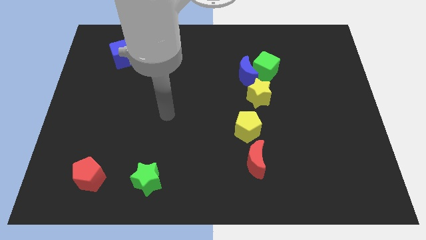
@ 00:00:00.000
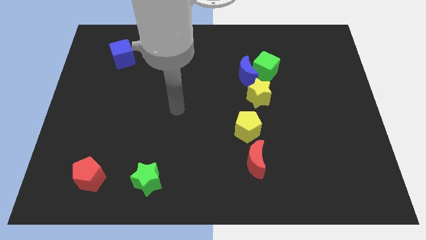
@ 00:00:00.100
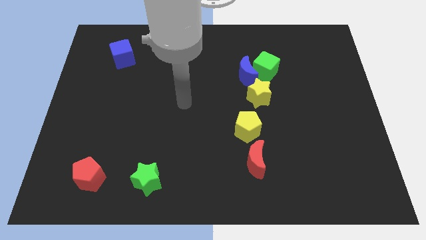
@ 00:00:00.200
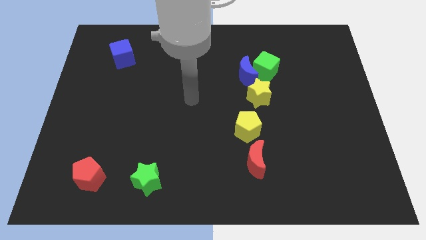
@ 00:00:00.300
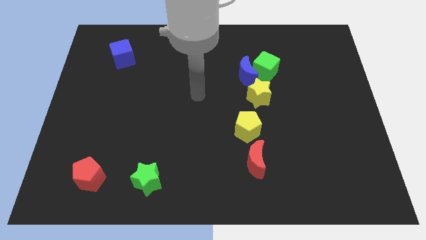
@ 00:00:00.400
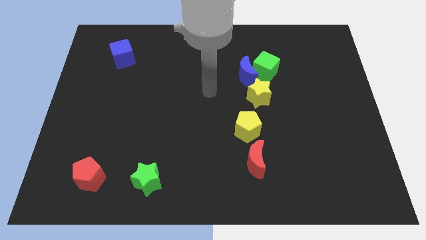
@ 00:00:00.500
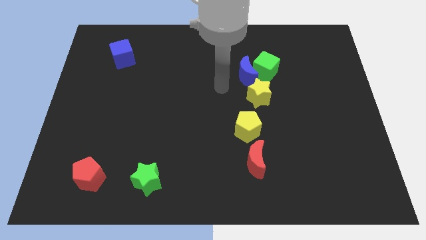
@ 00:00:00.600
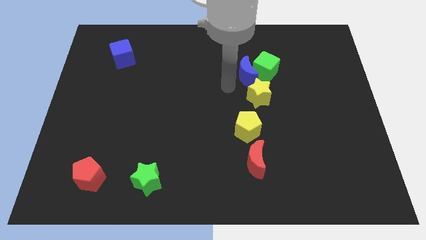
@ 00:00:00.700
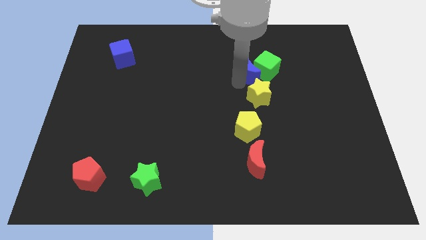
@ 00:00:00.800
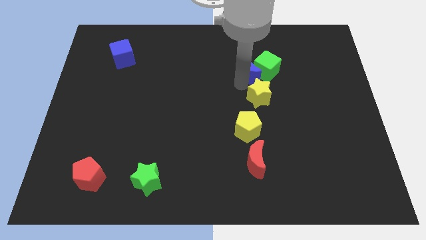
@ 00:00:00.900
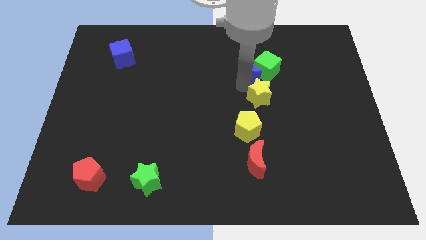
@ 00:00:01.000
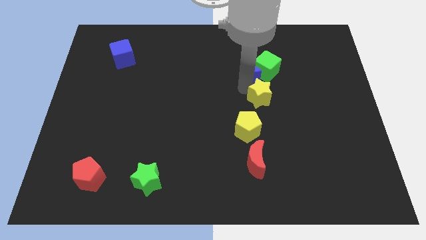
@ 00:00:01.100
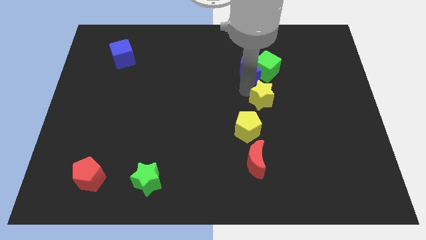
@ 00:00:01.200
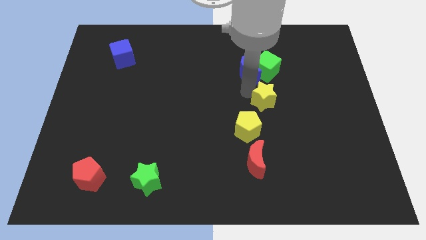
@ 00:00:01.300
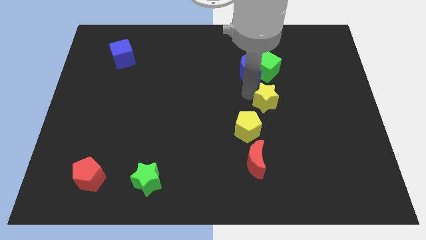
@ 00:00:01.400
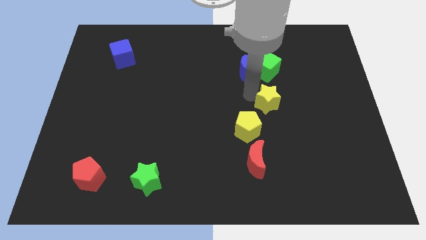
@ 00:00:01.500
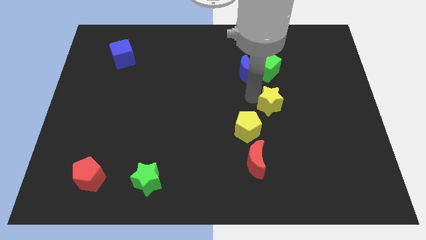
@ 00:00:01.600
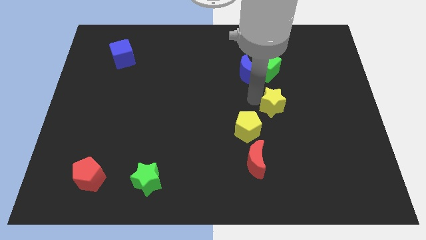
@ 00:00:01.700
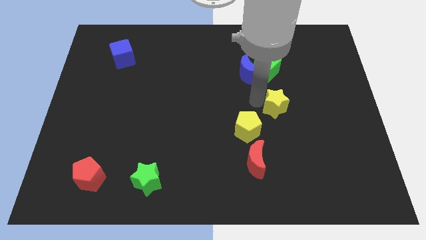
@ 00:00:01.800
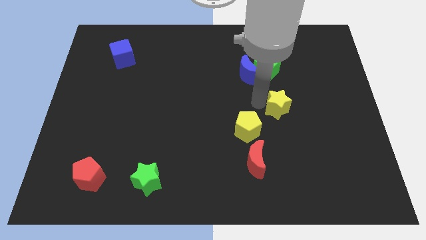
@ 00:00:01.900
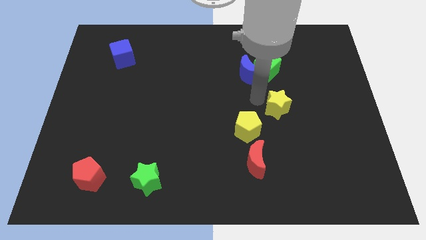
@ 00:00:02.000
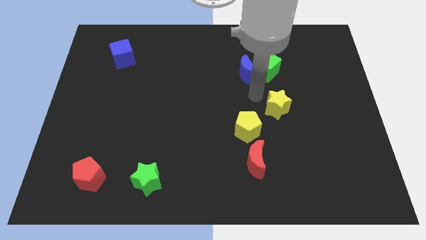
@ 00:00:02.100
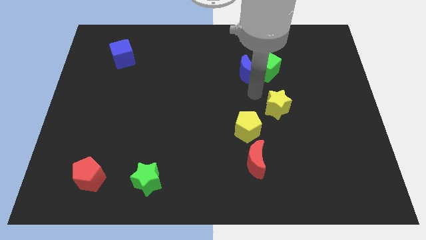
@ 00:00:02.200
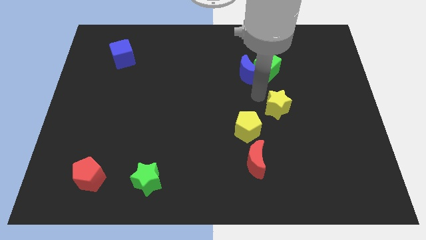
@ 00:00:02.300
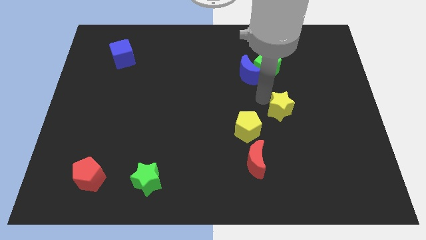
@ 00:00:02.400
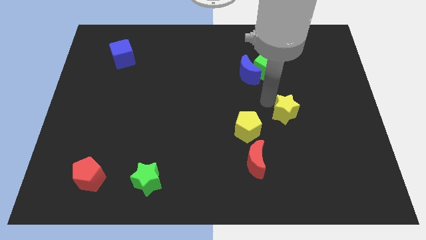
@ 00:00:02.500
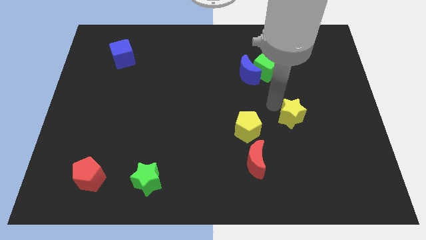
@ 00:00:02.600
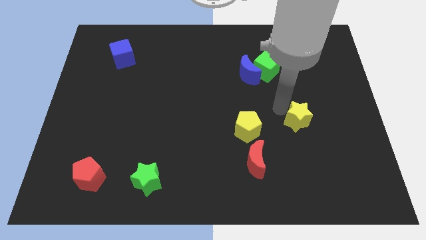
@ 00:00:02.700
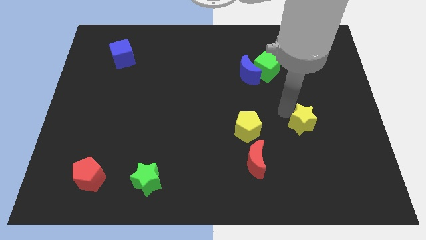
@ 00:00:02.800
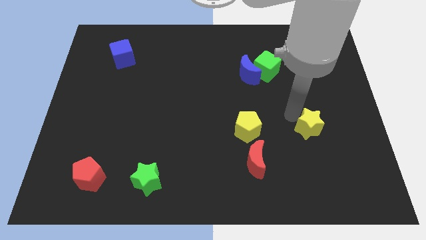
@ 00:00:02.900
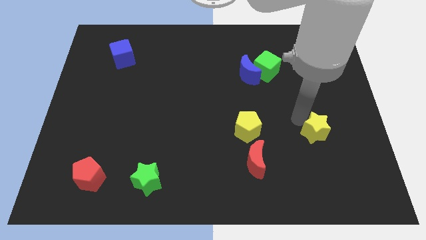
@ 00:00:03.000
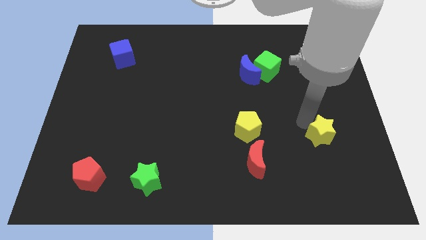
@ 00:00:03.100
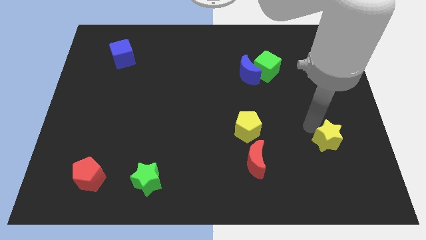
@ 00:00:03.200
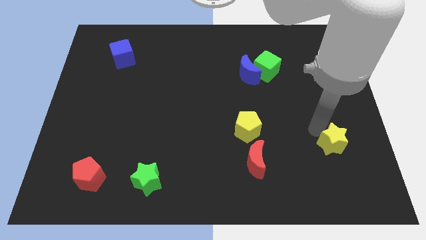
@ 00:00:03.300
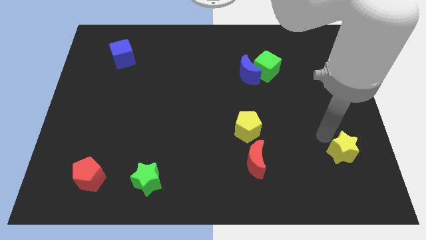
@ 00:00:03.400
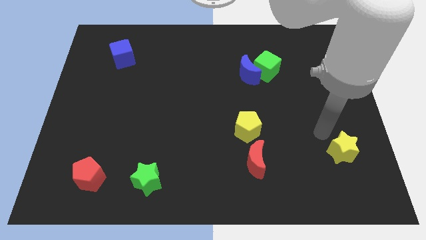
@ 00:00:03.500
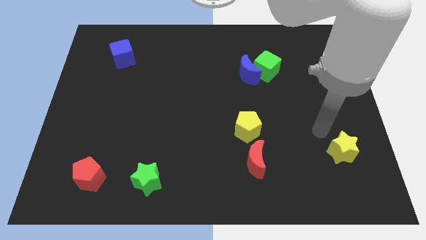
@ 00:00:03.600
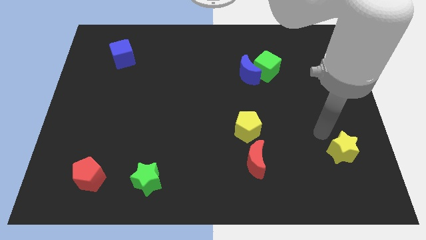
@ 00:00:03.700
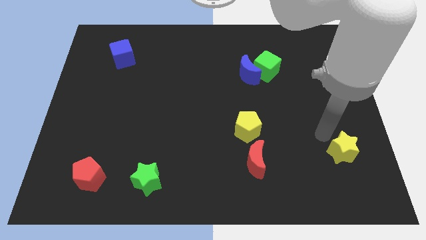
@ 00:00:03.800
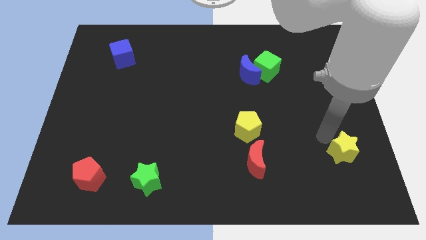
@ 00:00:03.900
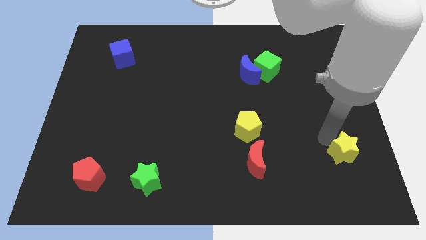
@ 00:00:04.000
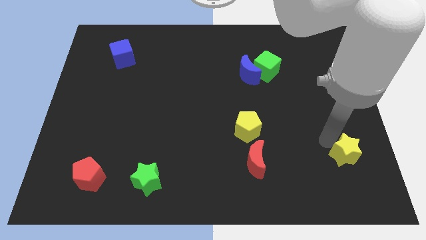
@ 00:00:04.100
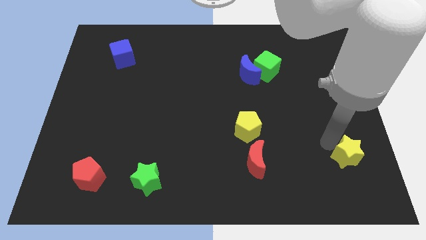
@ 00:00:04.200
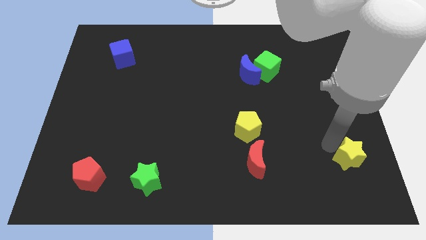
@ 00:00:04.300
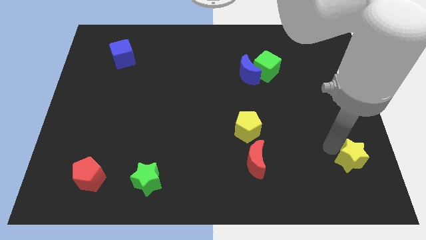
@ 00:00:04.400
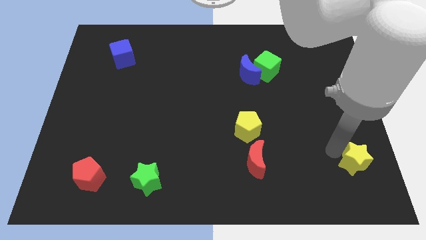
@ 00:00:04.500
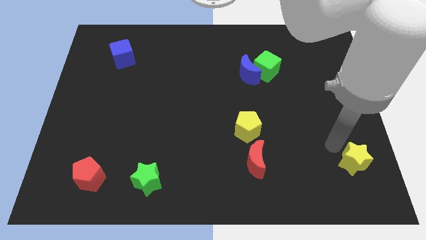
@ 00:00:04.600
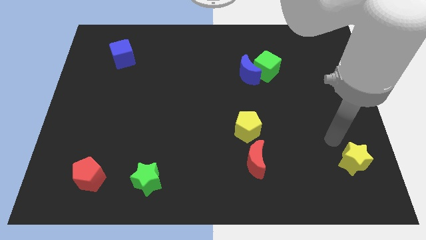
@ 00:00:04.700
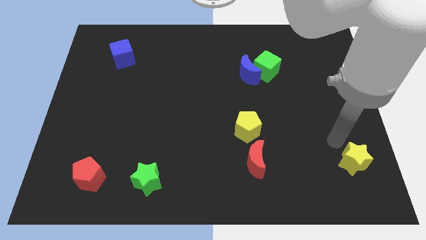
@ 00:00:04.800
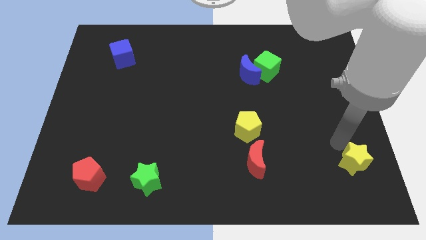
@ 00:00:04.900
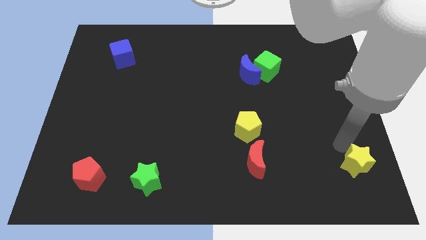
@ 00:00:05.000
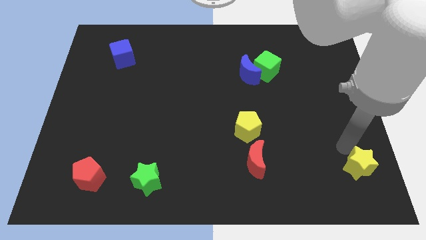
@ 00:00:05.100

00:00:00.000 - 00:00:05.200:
push the yellow star to the lower right corner

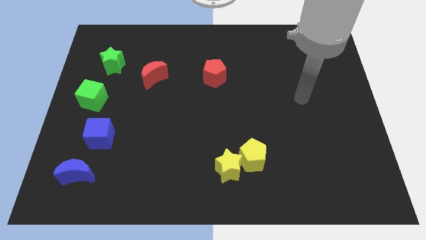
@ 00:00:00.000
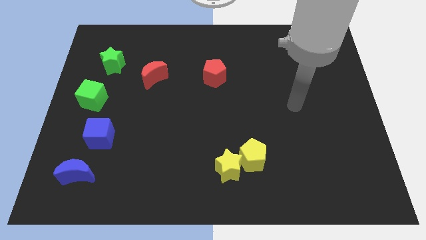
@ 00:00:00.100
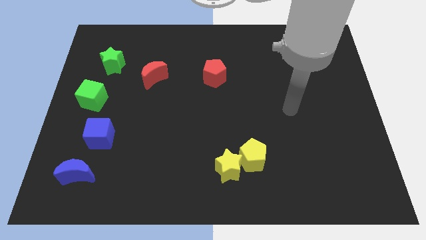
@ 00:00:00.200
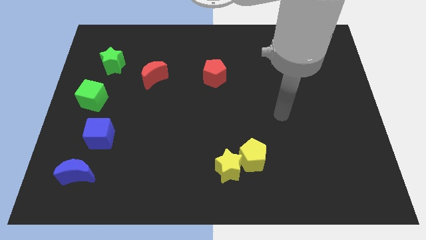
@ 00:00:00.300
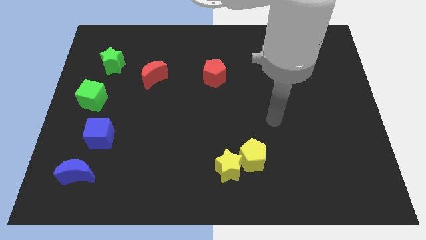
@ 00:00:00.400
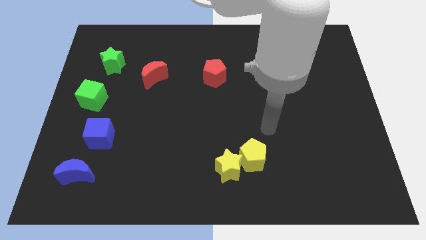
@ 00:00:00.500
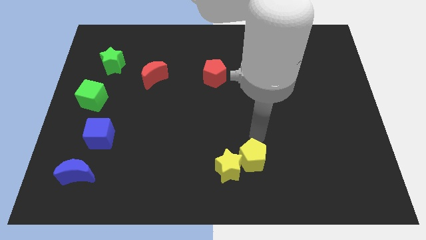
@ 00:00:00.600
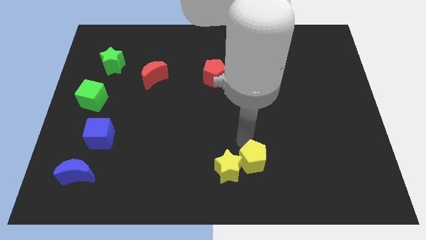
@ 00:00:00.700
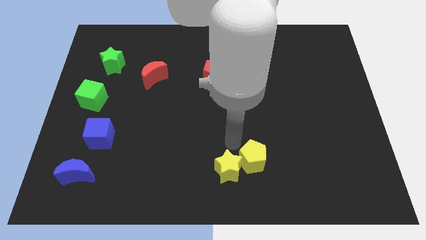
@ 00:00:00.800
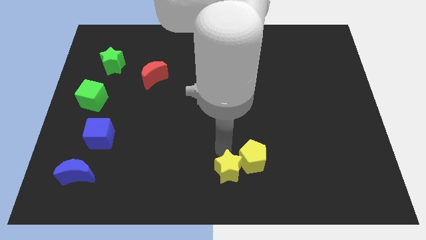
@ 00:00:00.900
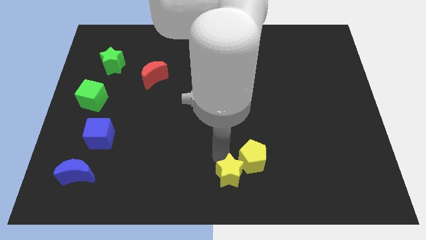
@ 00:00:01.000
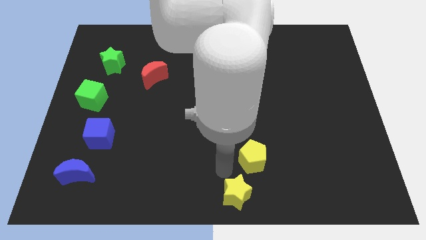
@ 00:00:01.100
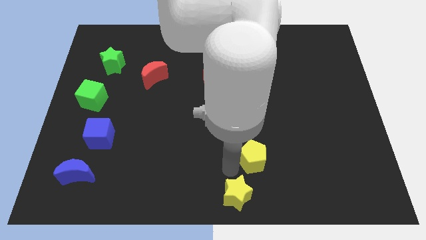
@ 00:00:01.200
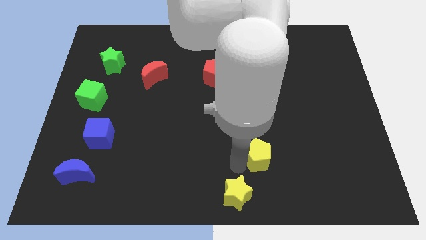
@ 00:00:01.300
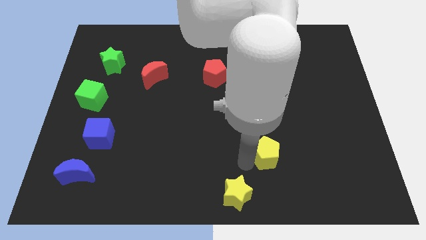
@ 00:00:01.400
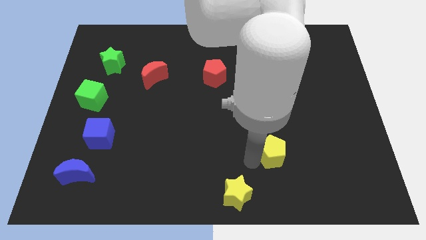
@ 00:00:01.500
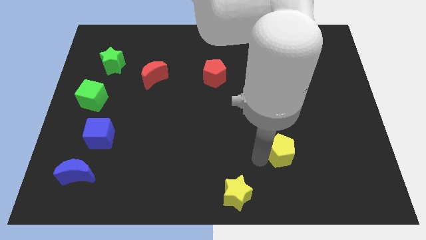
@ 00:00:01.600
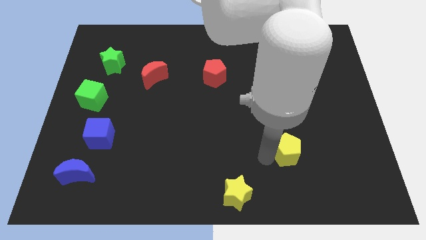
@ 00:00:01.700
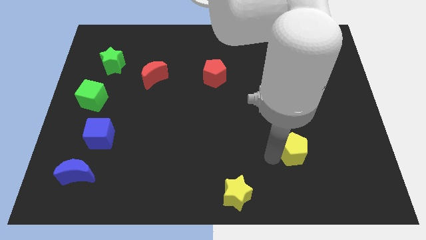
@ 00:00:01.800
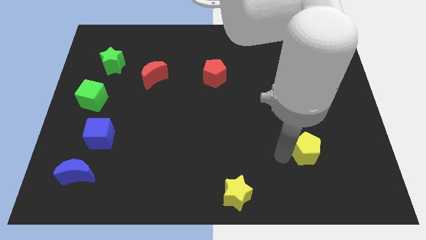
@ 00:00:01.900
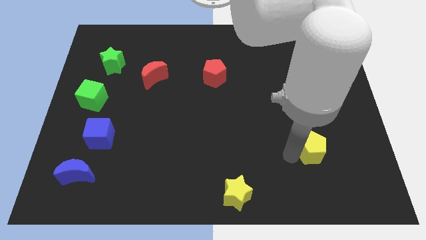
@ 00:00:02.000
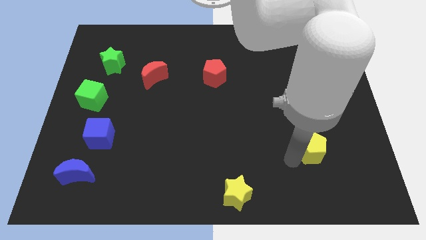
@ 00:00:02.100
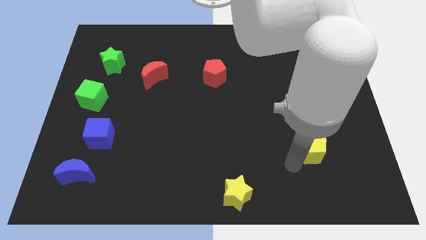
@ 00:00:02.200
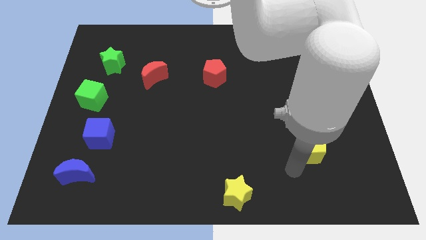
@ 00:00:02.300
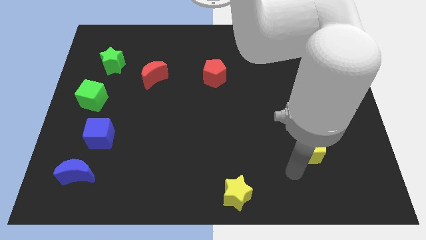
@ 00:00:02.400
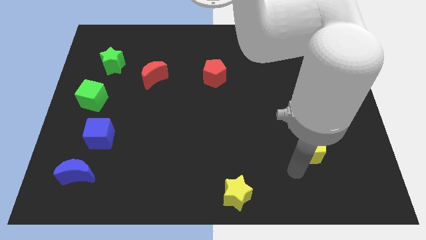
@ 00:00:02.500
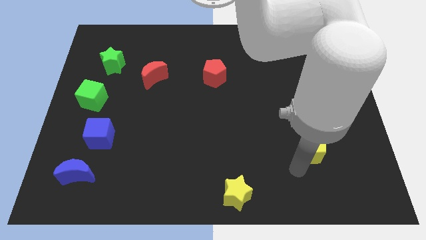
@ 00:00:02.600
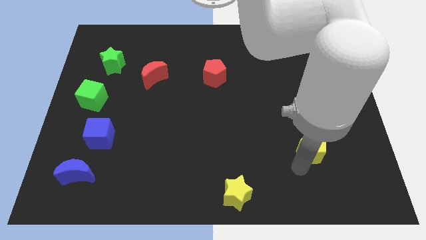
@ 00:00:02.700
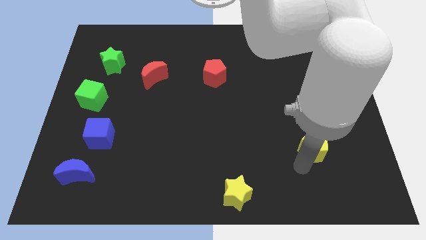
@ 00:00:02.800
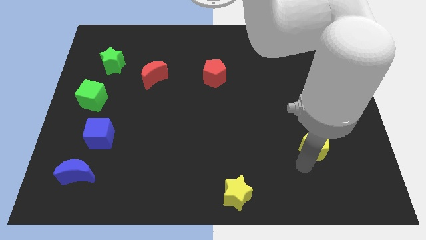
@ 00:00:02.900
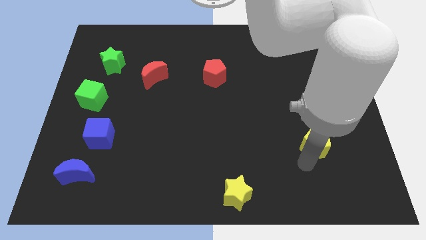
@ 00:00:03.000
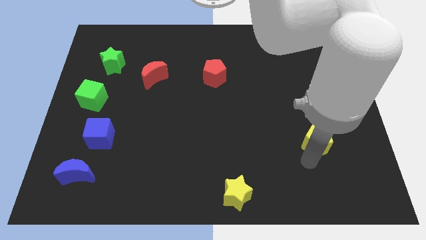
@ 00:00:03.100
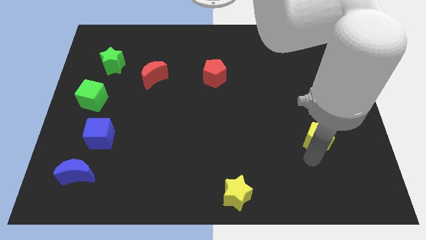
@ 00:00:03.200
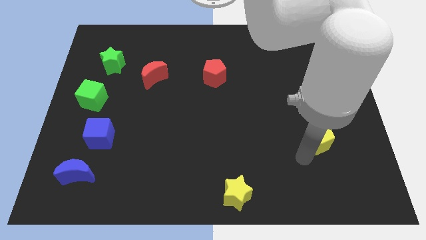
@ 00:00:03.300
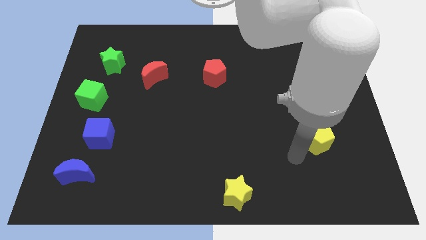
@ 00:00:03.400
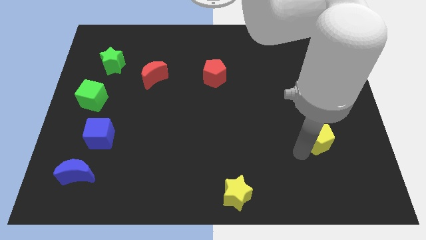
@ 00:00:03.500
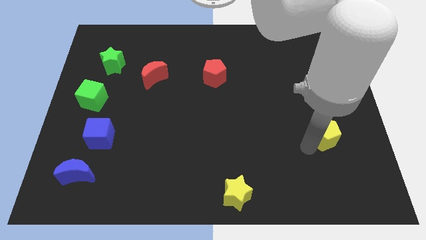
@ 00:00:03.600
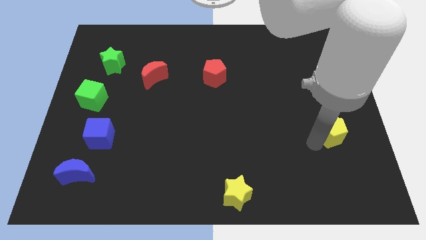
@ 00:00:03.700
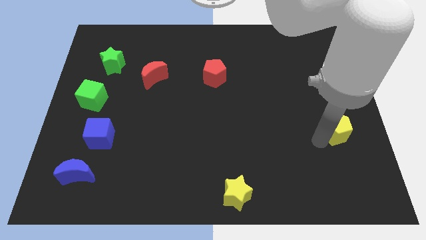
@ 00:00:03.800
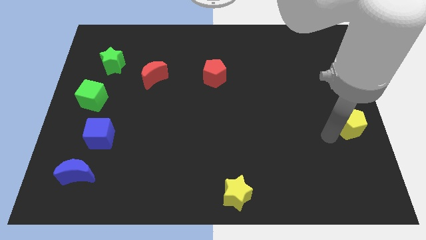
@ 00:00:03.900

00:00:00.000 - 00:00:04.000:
slide the yellow pentagon to the right side of the board
